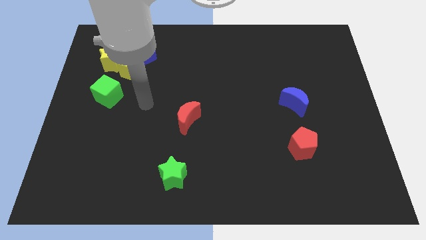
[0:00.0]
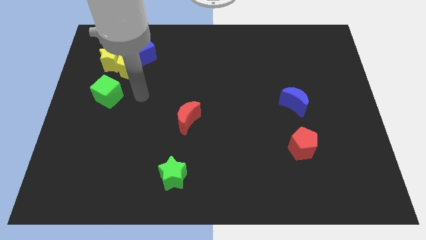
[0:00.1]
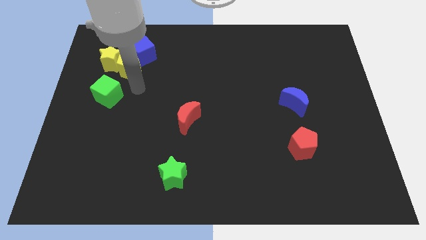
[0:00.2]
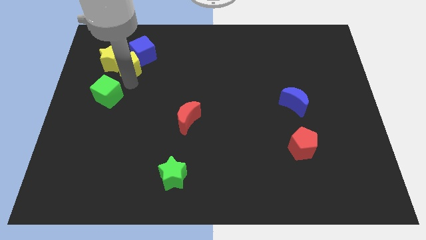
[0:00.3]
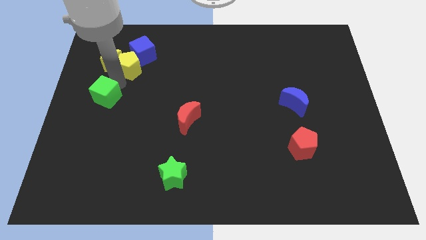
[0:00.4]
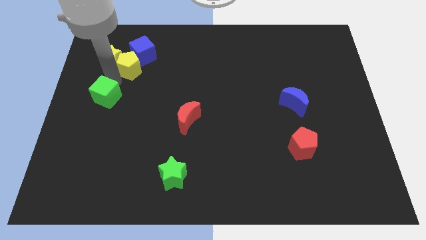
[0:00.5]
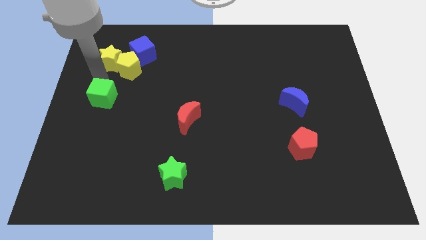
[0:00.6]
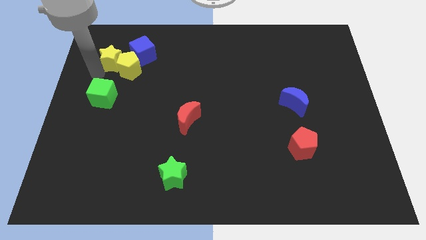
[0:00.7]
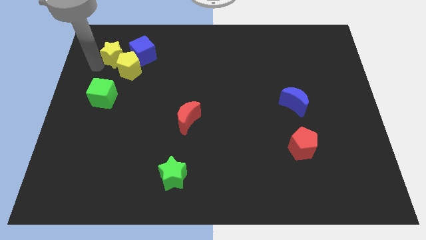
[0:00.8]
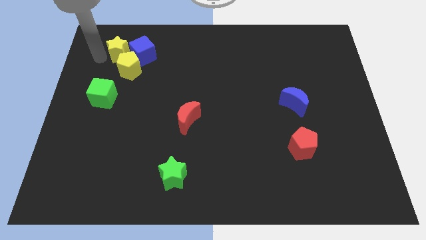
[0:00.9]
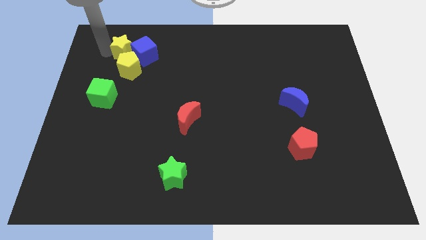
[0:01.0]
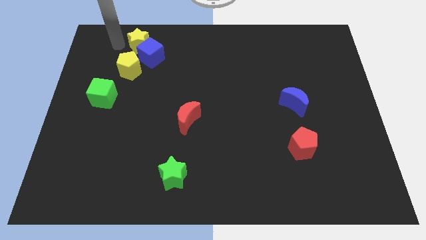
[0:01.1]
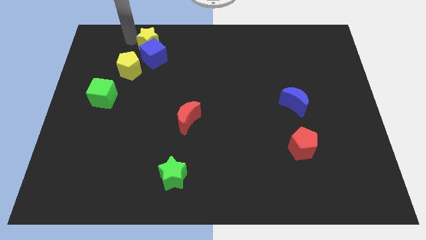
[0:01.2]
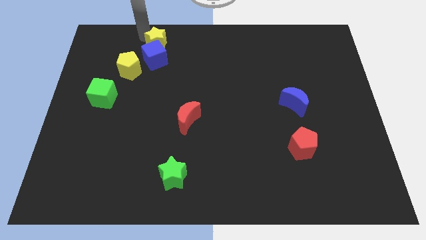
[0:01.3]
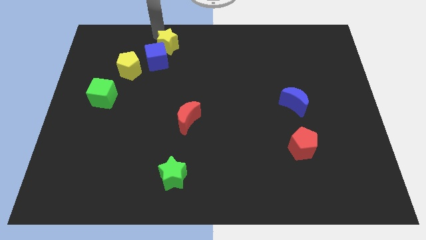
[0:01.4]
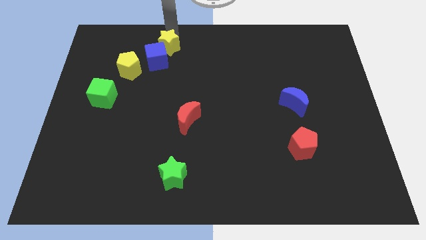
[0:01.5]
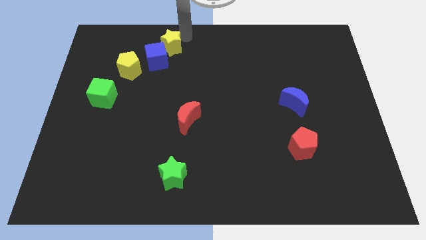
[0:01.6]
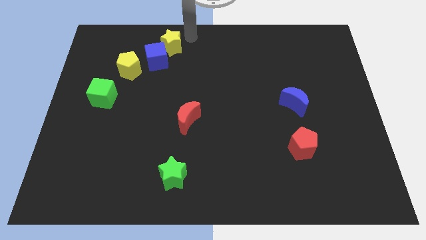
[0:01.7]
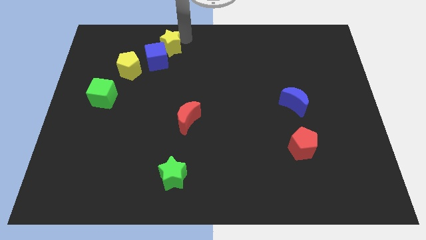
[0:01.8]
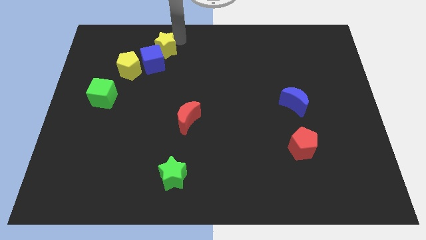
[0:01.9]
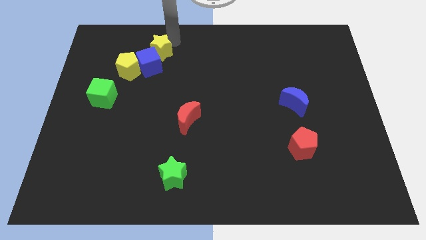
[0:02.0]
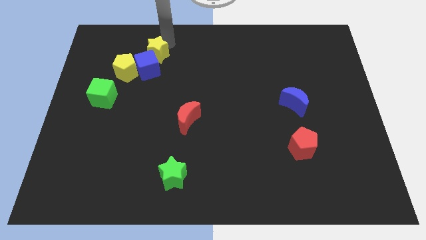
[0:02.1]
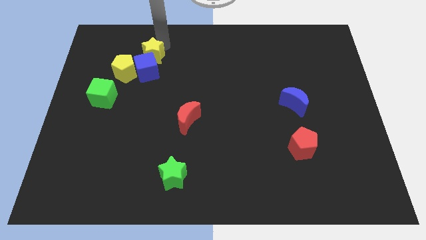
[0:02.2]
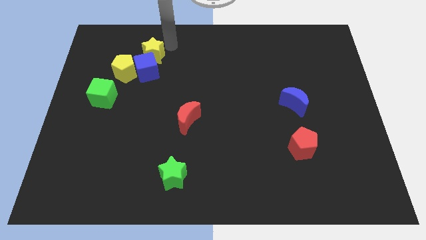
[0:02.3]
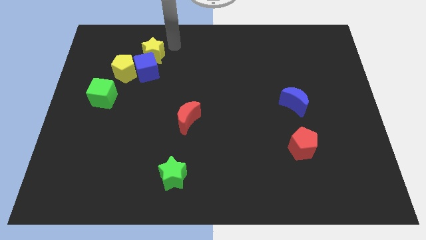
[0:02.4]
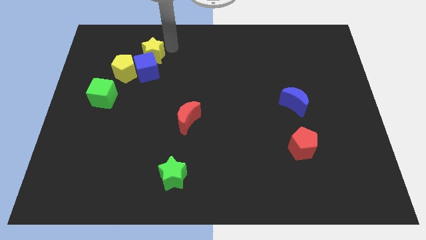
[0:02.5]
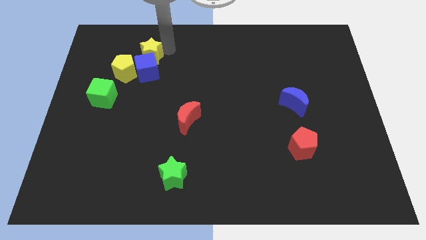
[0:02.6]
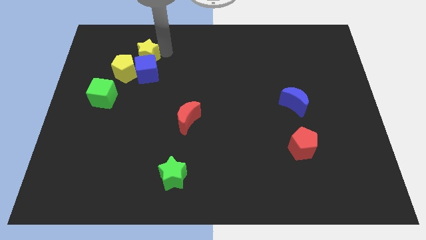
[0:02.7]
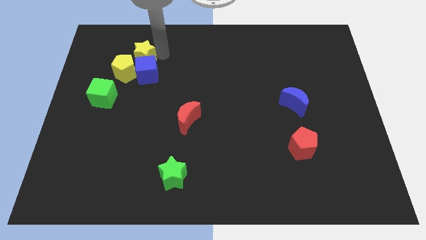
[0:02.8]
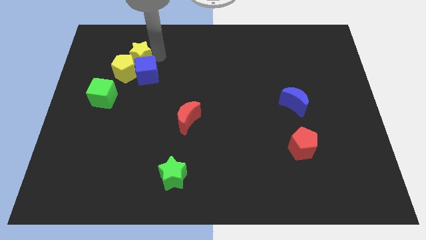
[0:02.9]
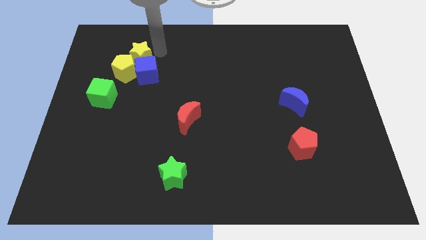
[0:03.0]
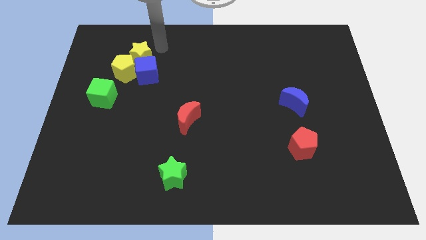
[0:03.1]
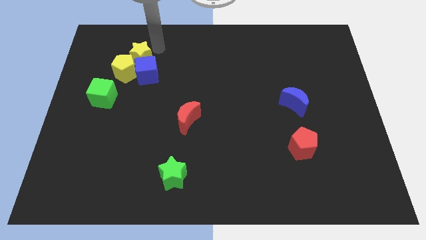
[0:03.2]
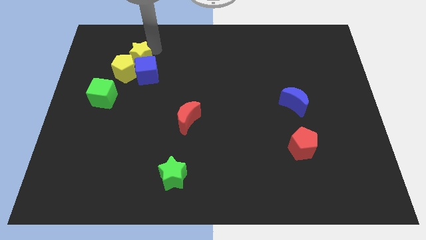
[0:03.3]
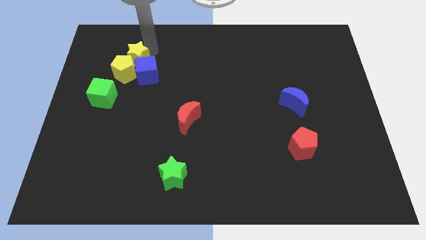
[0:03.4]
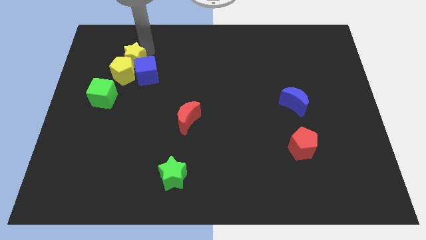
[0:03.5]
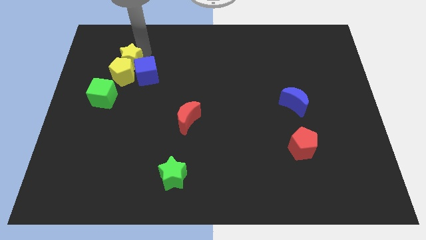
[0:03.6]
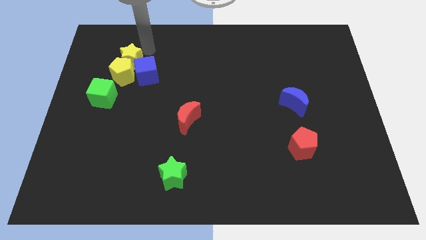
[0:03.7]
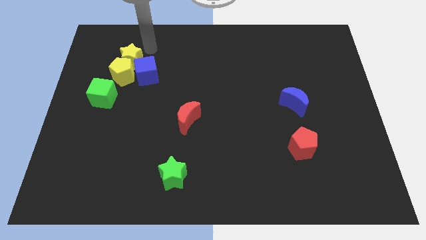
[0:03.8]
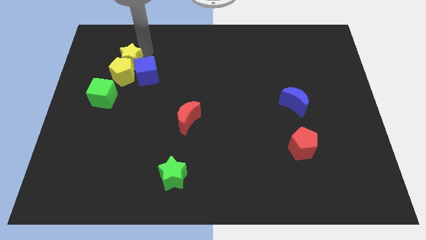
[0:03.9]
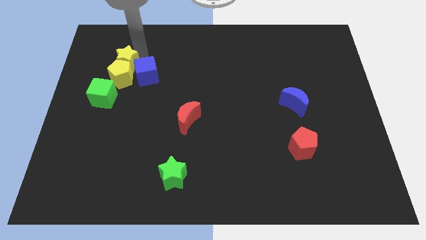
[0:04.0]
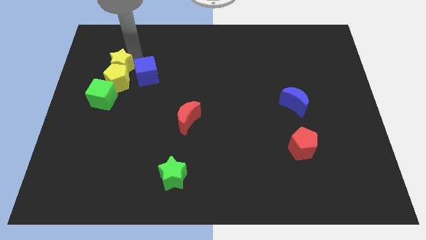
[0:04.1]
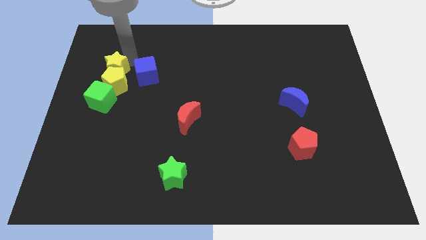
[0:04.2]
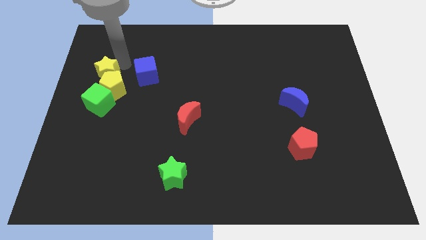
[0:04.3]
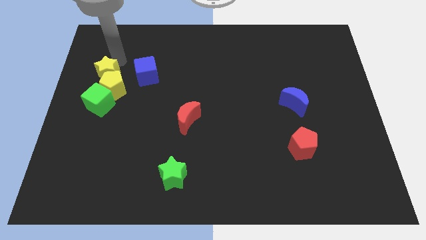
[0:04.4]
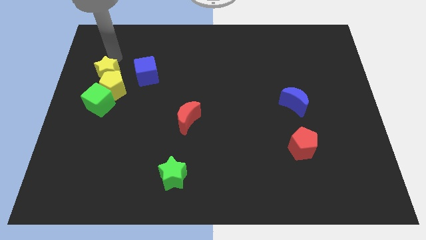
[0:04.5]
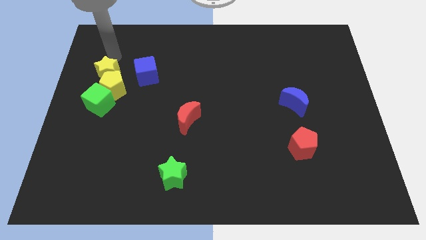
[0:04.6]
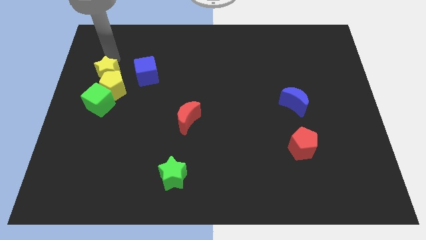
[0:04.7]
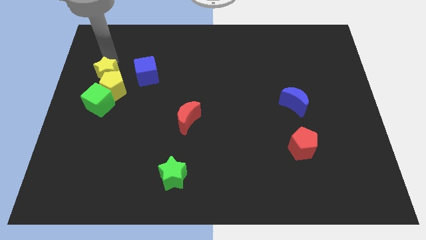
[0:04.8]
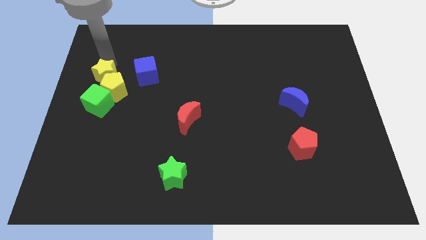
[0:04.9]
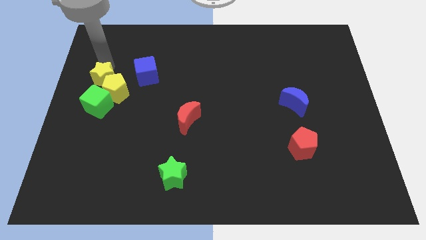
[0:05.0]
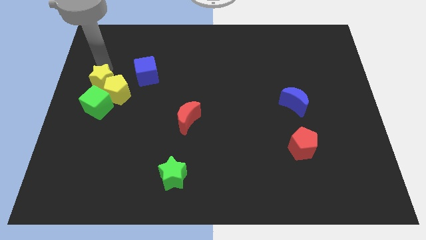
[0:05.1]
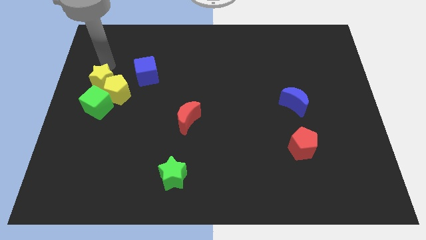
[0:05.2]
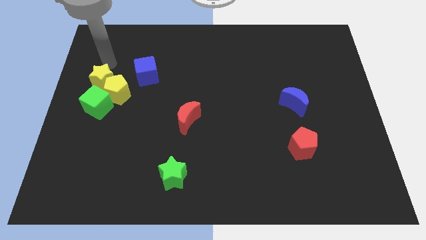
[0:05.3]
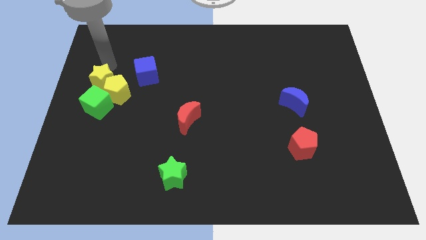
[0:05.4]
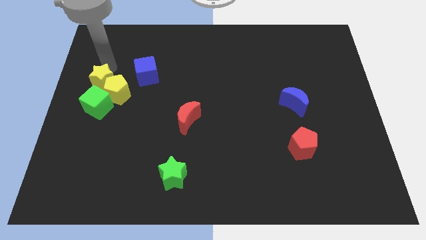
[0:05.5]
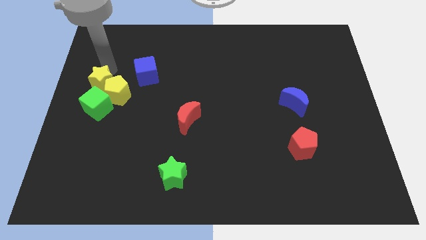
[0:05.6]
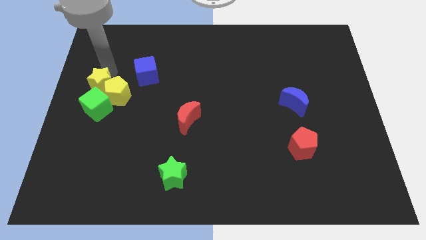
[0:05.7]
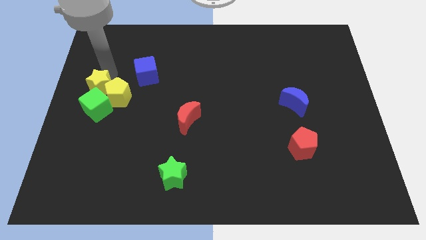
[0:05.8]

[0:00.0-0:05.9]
push the yellow star towards the green cube

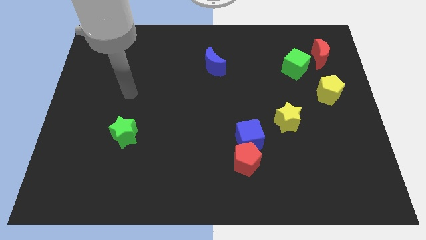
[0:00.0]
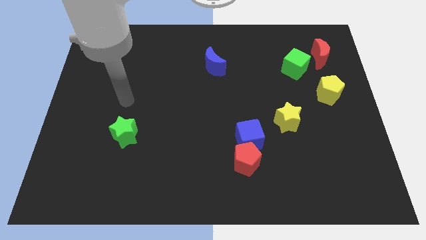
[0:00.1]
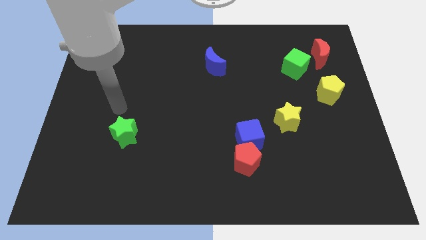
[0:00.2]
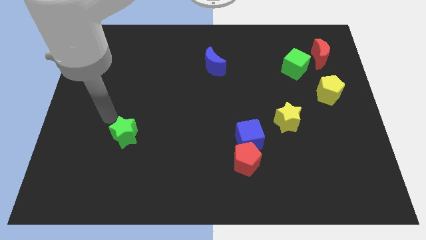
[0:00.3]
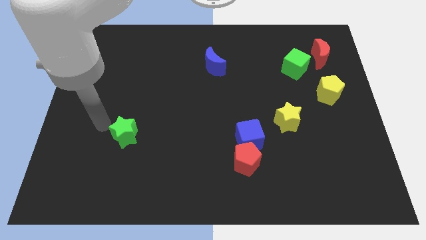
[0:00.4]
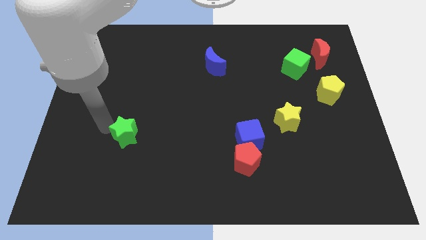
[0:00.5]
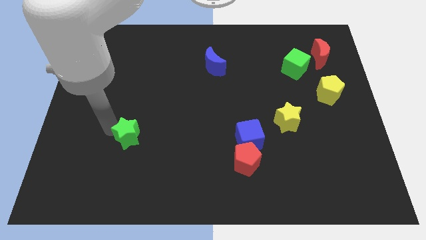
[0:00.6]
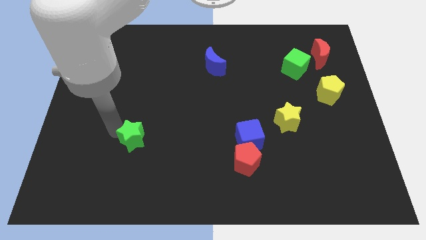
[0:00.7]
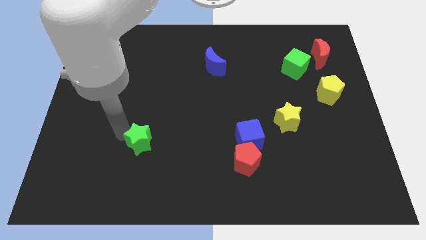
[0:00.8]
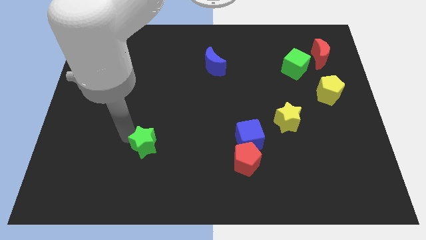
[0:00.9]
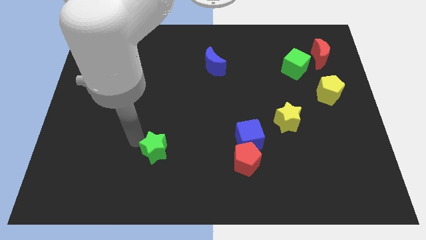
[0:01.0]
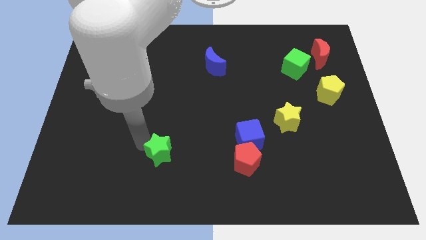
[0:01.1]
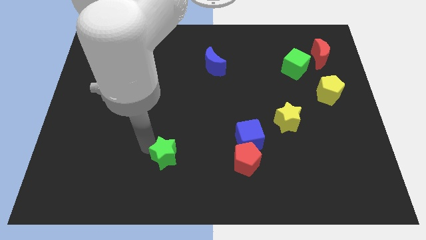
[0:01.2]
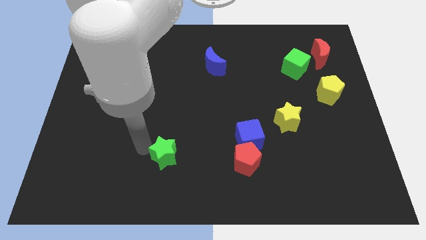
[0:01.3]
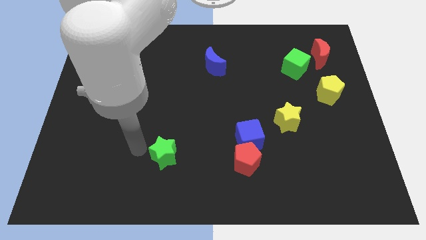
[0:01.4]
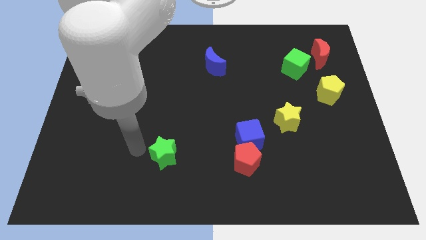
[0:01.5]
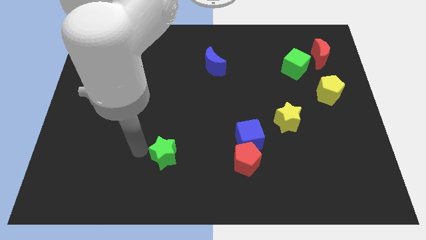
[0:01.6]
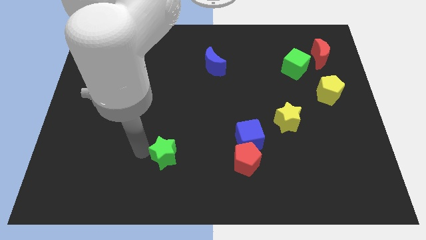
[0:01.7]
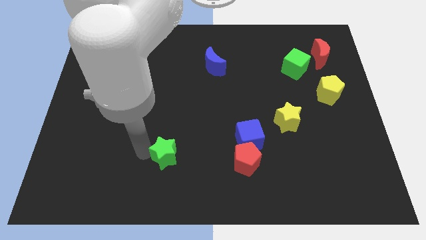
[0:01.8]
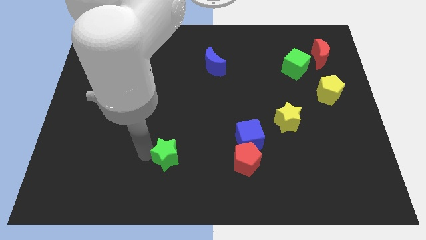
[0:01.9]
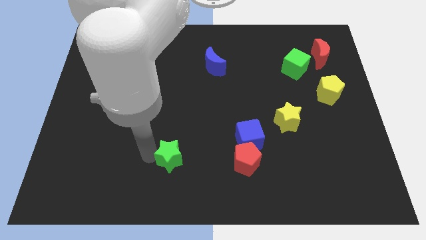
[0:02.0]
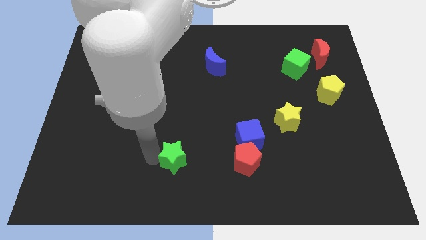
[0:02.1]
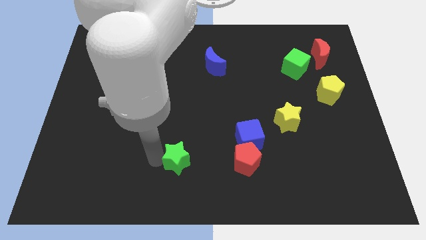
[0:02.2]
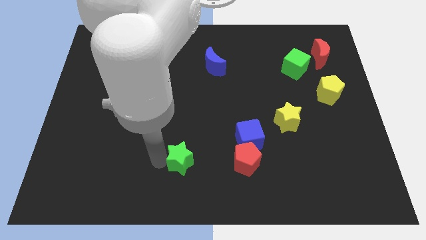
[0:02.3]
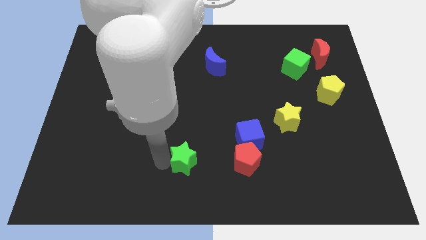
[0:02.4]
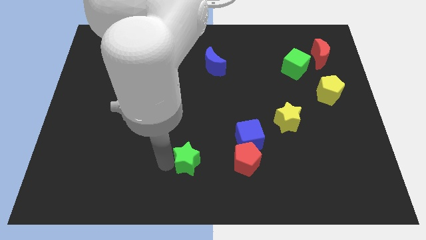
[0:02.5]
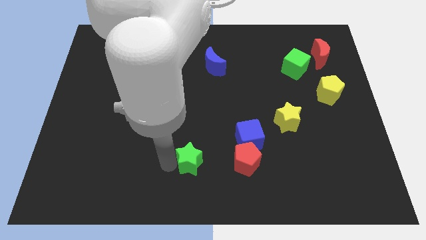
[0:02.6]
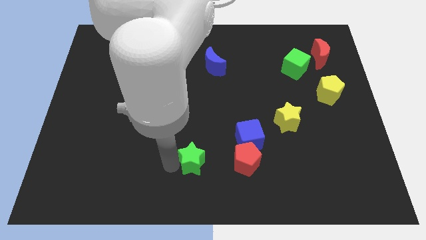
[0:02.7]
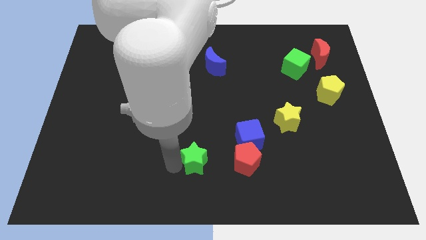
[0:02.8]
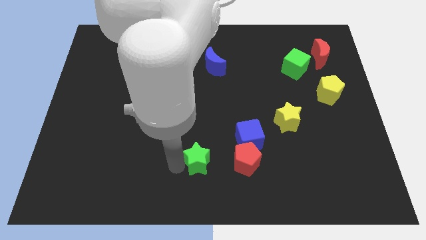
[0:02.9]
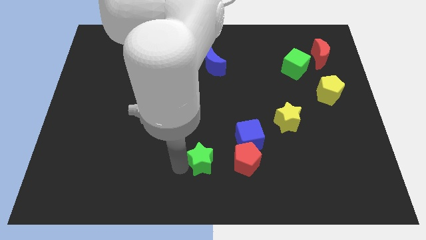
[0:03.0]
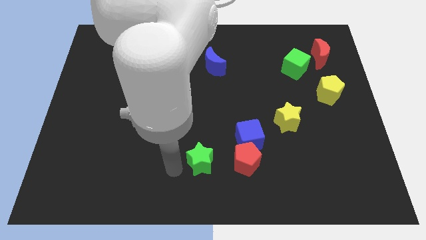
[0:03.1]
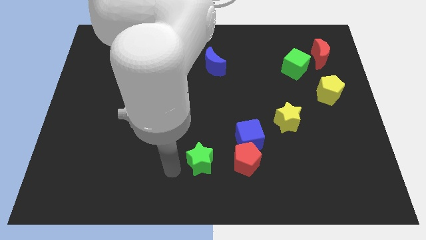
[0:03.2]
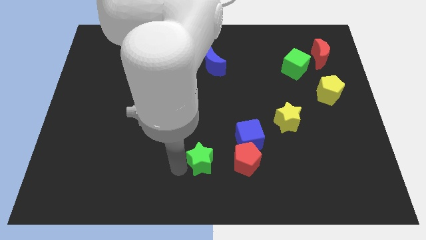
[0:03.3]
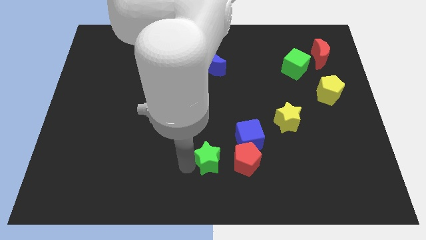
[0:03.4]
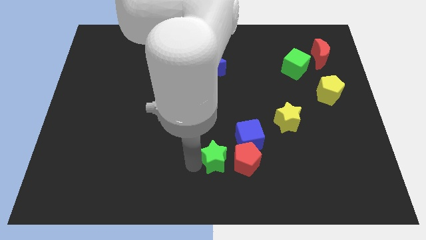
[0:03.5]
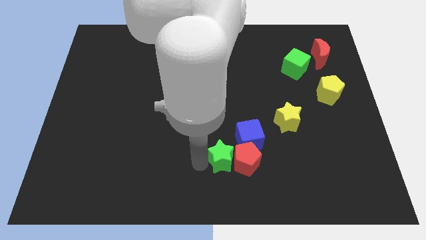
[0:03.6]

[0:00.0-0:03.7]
slide the green star to the red pentagon
